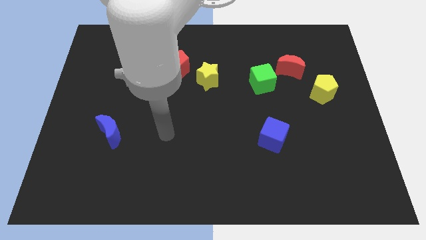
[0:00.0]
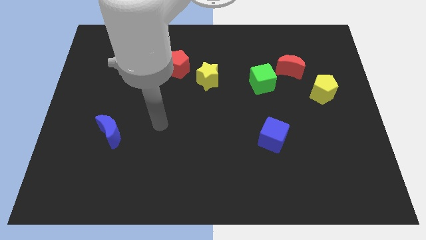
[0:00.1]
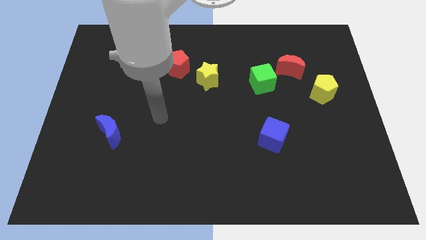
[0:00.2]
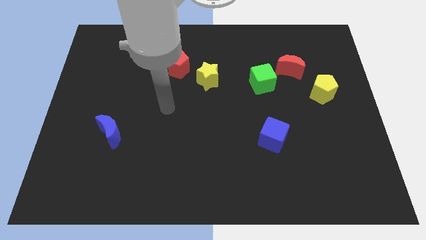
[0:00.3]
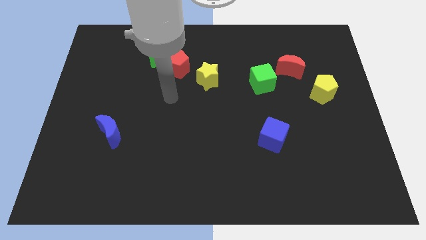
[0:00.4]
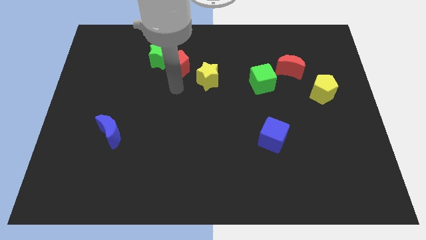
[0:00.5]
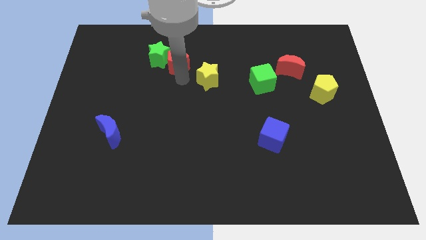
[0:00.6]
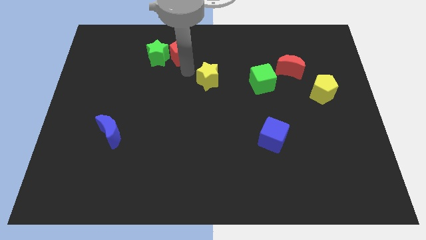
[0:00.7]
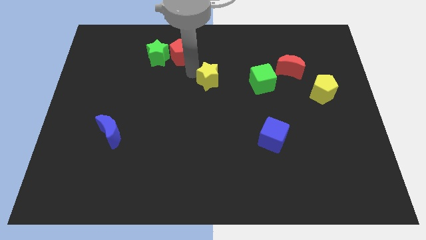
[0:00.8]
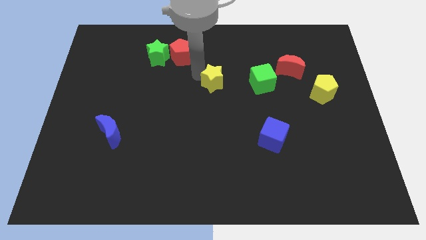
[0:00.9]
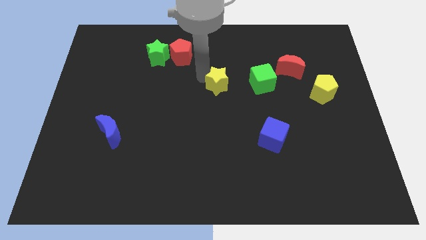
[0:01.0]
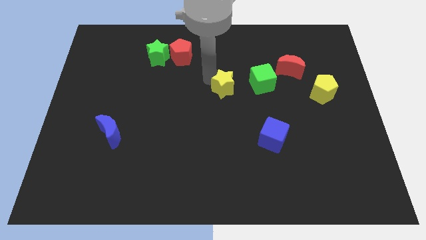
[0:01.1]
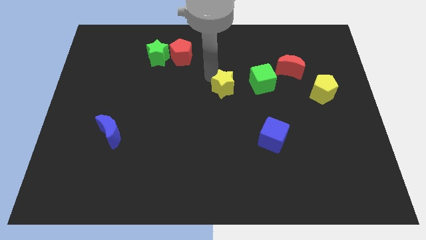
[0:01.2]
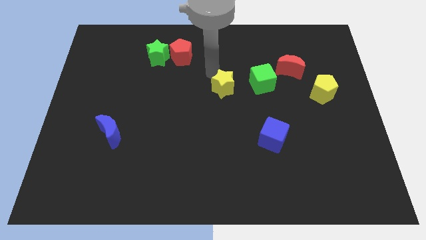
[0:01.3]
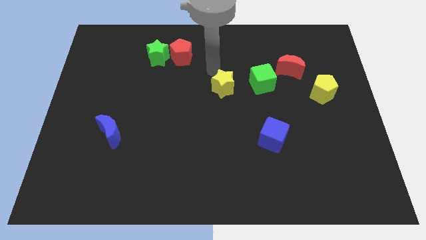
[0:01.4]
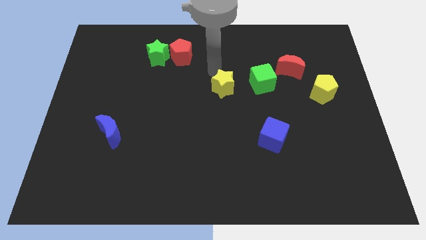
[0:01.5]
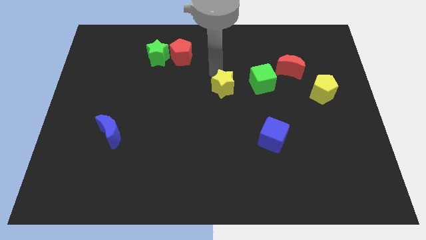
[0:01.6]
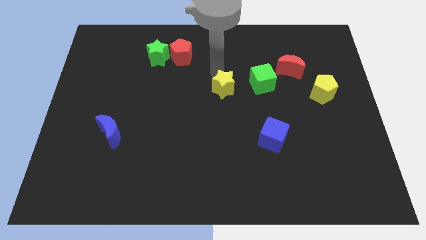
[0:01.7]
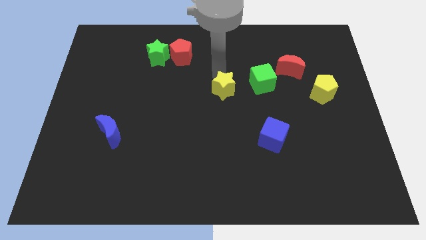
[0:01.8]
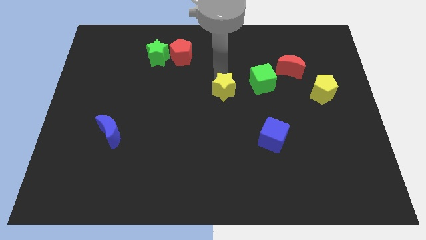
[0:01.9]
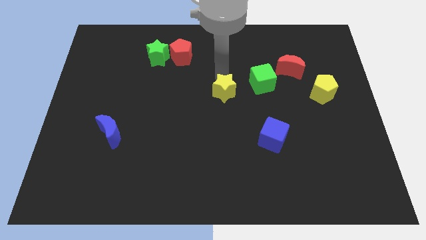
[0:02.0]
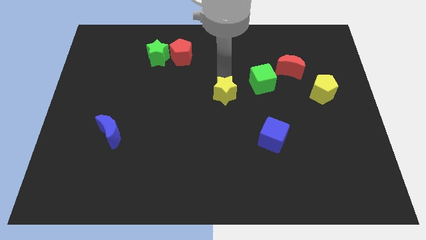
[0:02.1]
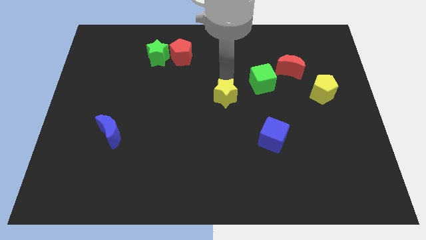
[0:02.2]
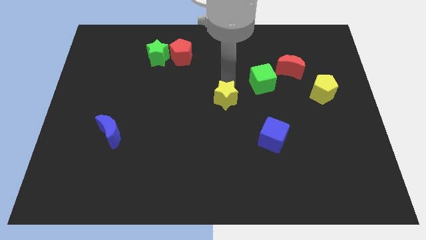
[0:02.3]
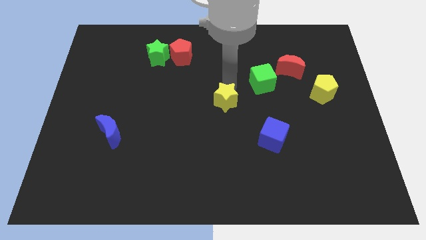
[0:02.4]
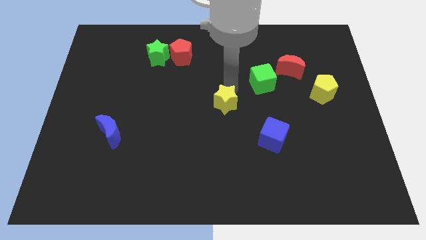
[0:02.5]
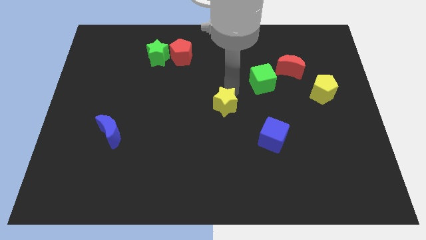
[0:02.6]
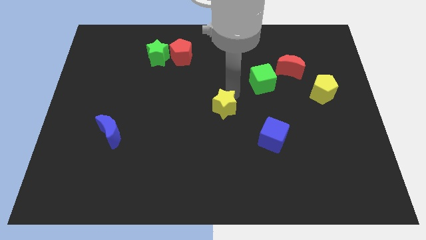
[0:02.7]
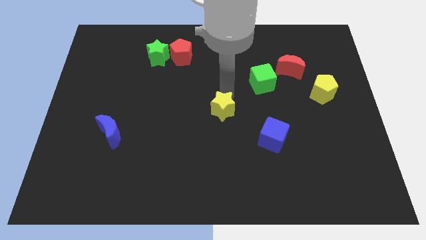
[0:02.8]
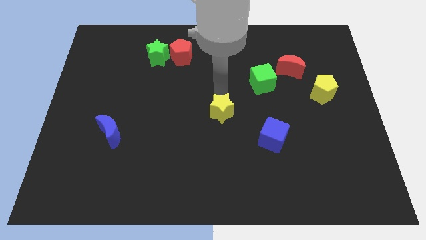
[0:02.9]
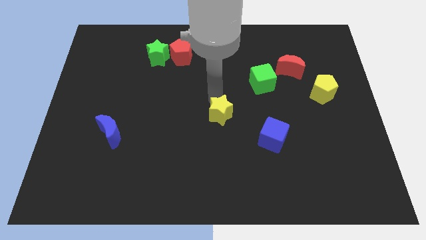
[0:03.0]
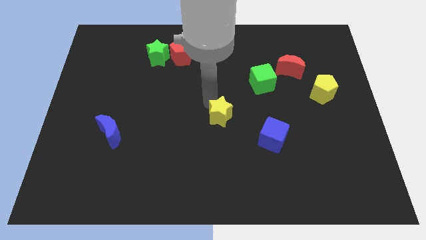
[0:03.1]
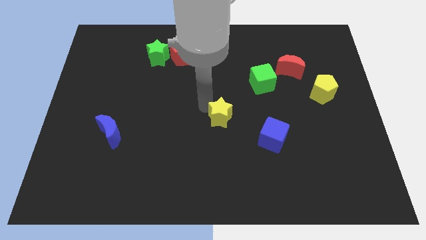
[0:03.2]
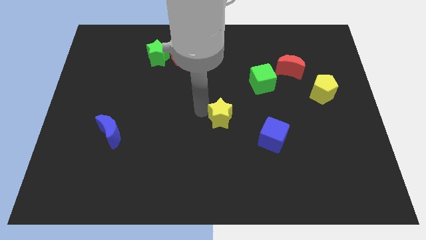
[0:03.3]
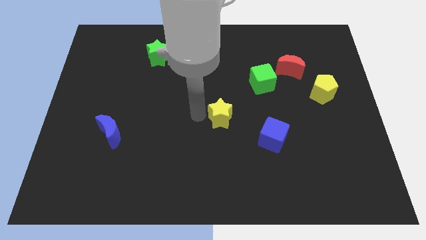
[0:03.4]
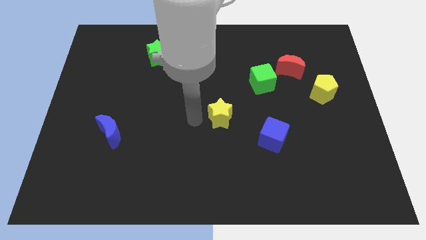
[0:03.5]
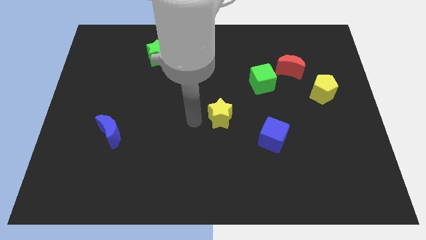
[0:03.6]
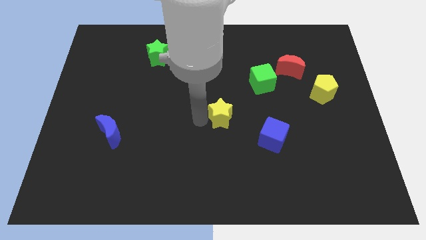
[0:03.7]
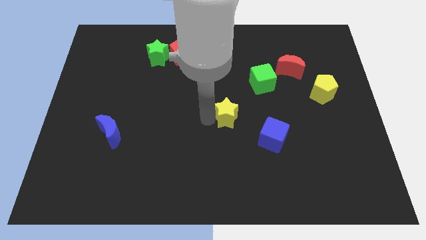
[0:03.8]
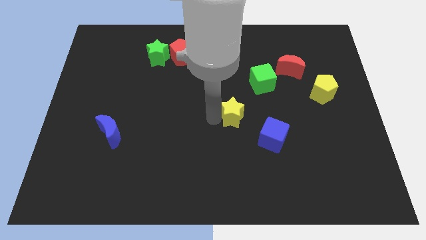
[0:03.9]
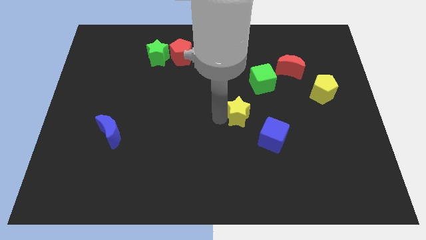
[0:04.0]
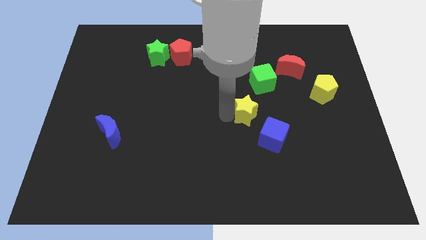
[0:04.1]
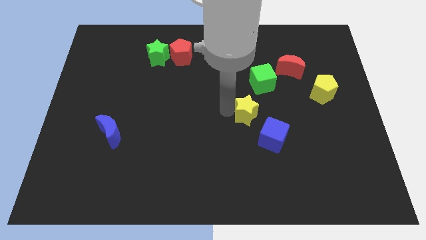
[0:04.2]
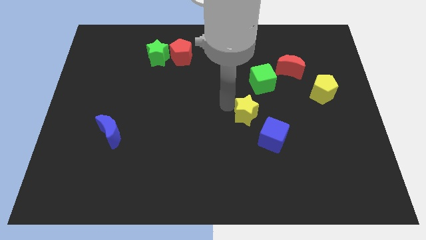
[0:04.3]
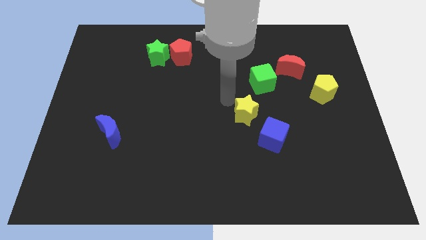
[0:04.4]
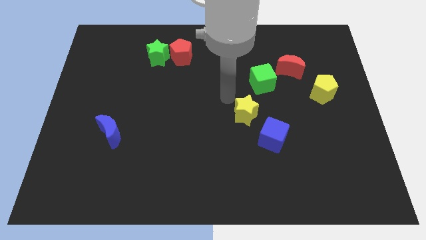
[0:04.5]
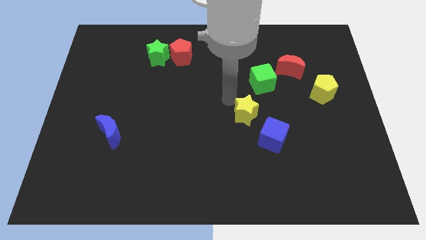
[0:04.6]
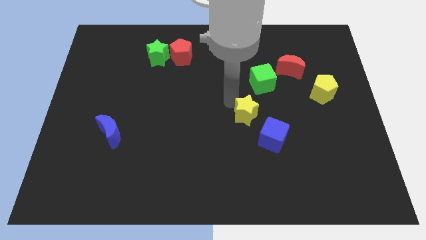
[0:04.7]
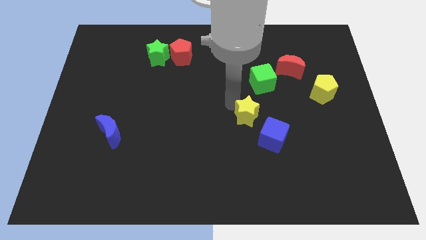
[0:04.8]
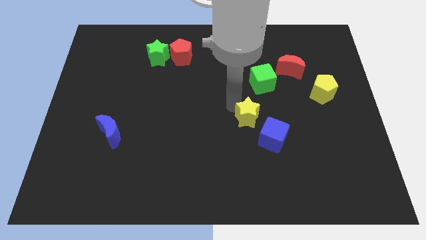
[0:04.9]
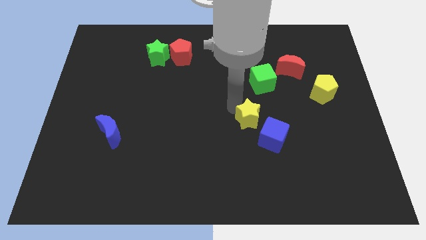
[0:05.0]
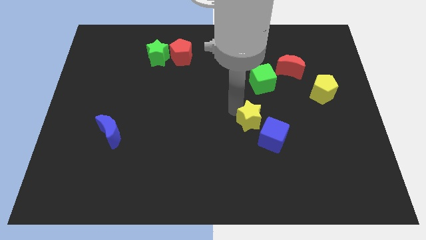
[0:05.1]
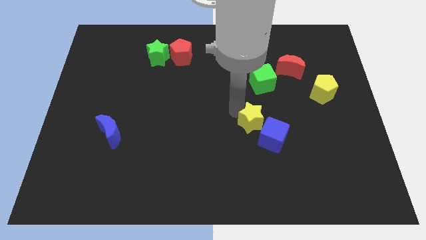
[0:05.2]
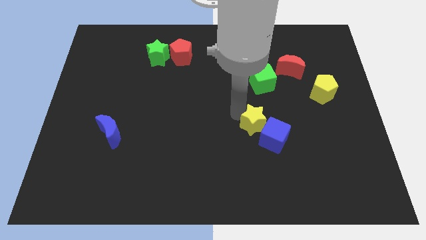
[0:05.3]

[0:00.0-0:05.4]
move the yellow star towards the blue cube

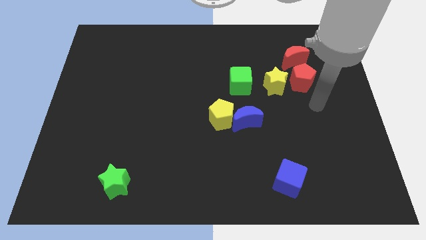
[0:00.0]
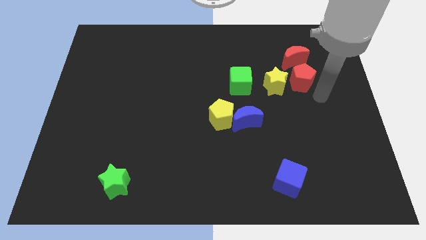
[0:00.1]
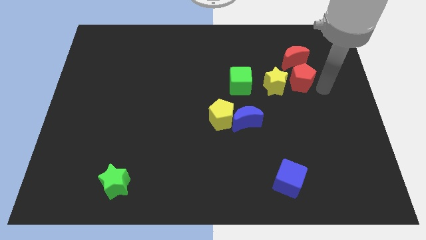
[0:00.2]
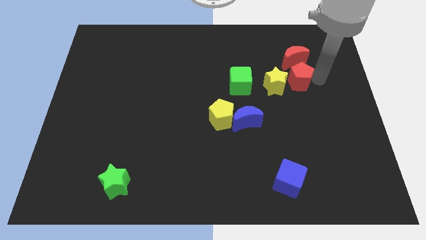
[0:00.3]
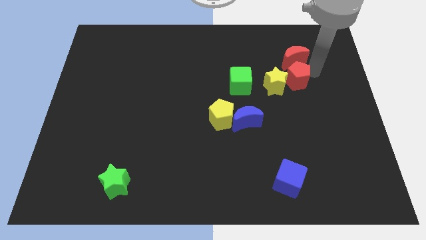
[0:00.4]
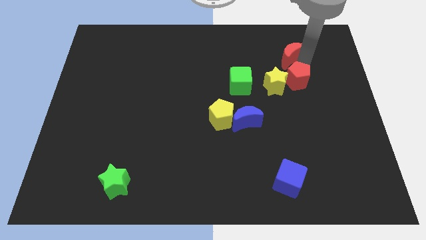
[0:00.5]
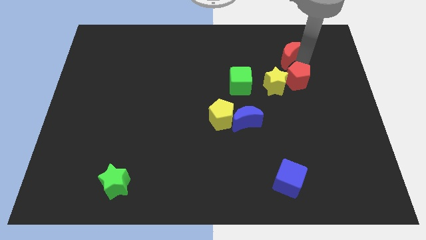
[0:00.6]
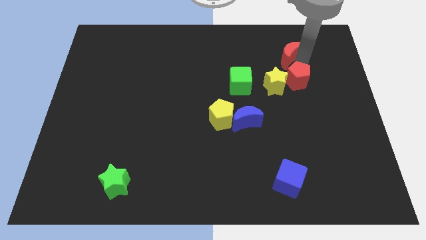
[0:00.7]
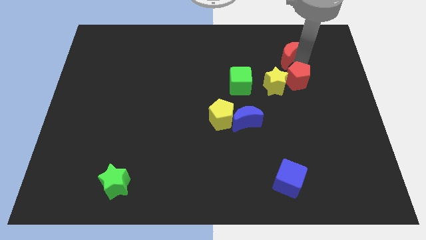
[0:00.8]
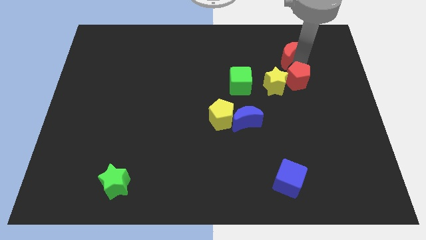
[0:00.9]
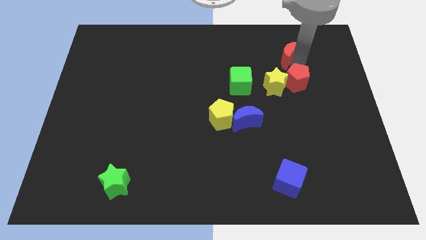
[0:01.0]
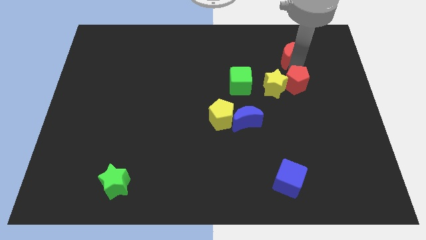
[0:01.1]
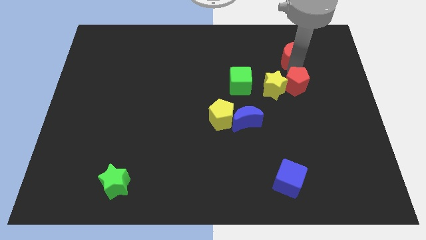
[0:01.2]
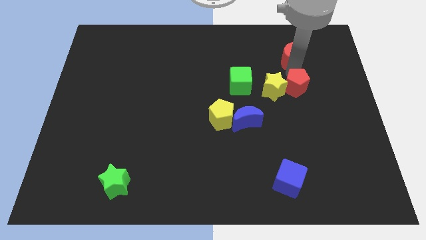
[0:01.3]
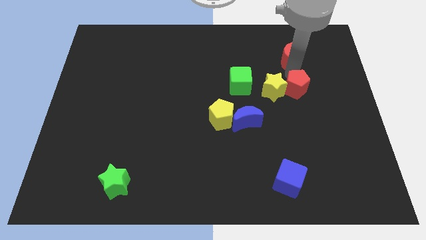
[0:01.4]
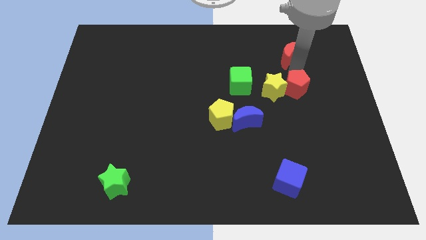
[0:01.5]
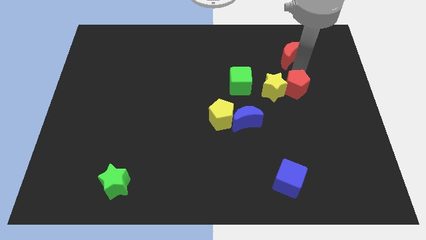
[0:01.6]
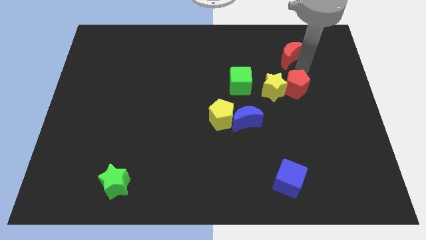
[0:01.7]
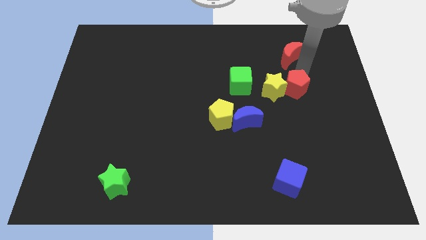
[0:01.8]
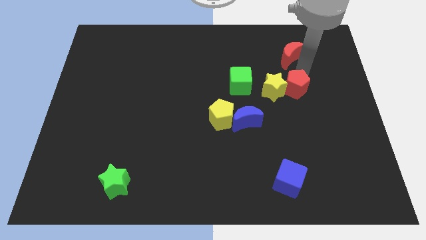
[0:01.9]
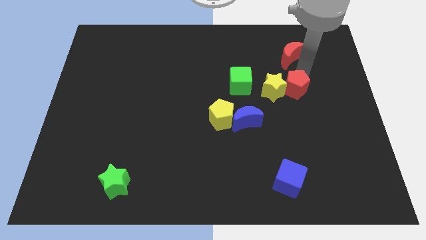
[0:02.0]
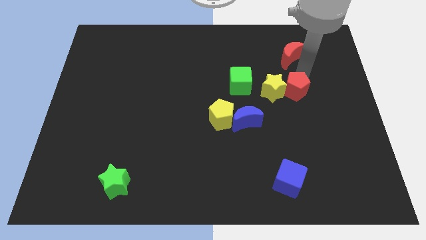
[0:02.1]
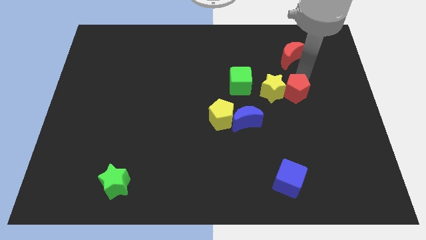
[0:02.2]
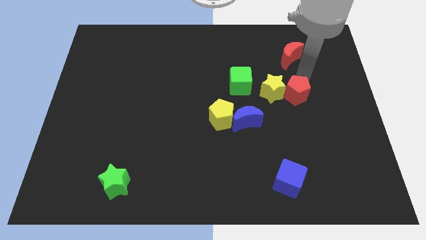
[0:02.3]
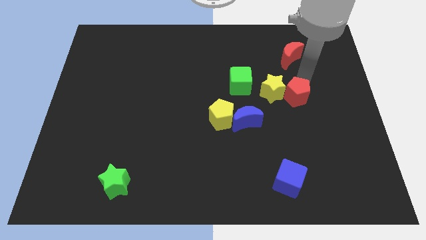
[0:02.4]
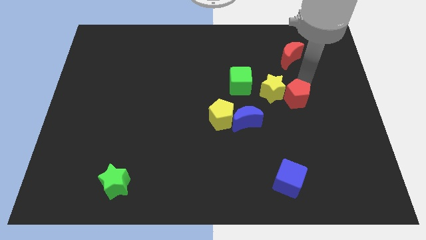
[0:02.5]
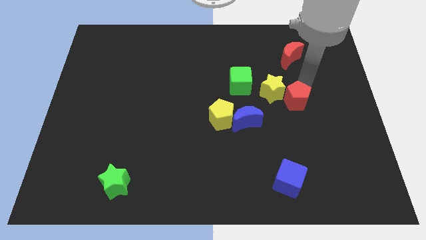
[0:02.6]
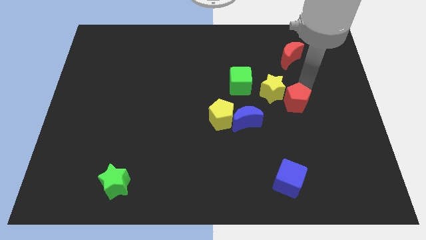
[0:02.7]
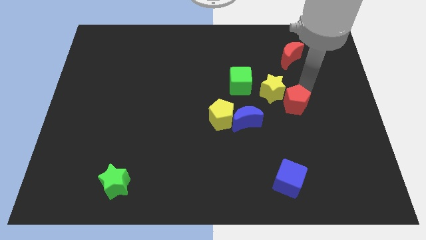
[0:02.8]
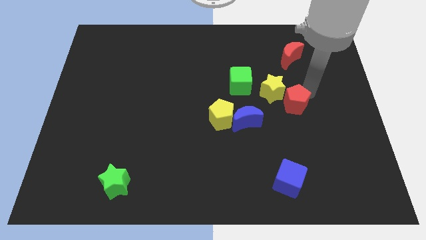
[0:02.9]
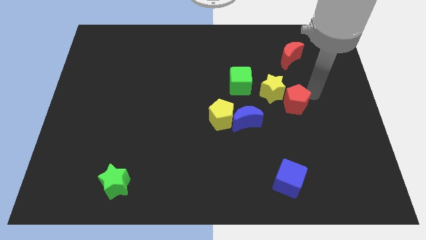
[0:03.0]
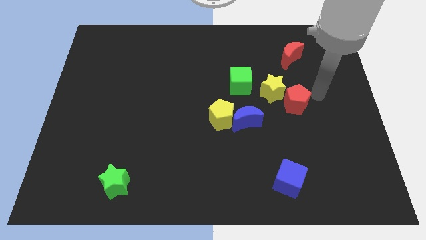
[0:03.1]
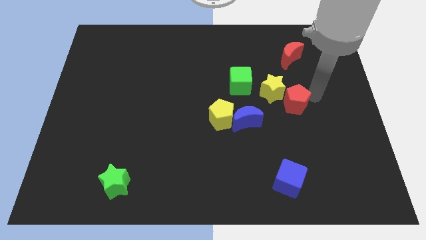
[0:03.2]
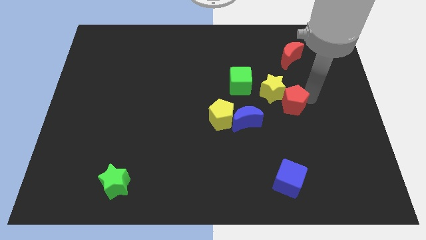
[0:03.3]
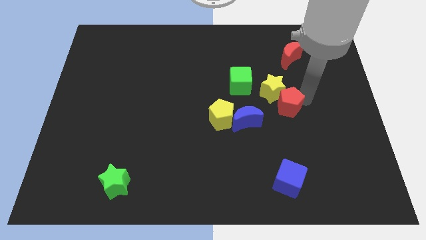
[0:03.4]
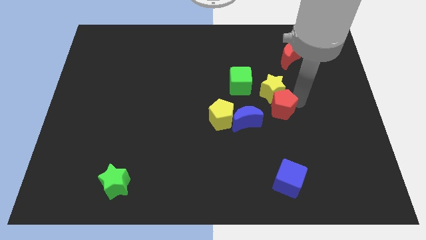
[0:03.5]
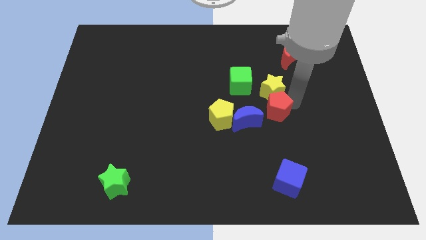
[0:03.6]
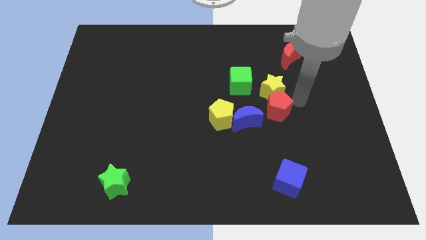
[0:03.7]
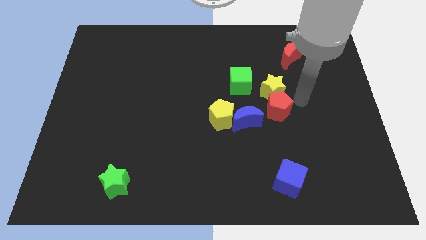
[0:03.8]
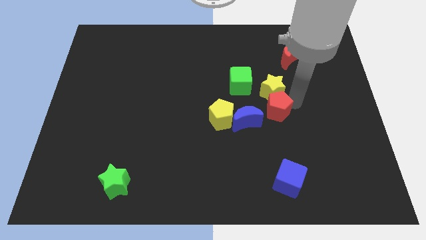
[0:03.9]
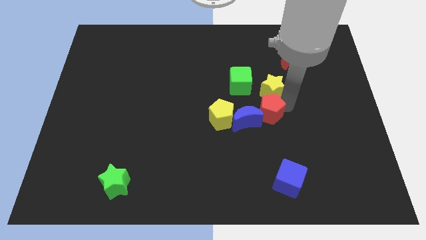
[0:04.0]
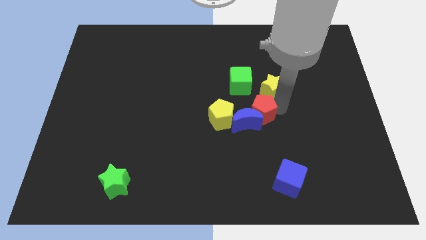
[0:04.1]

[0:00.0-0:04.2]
put the red pentagon to the blue moon
